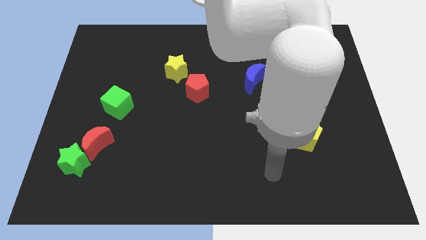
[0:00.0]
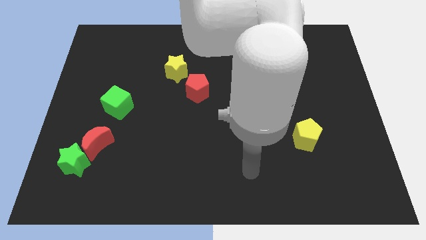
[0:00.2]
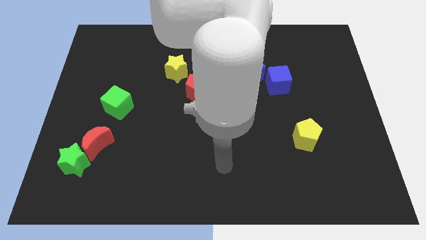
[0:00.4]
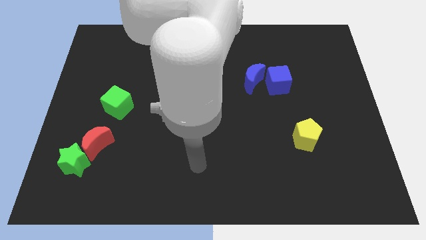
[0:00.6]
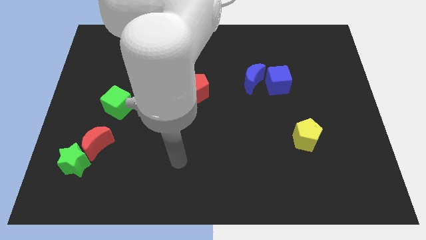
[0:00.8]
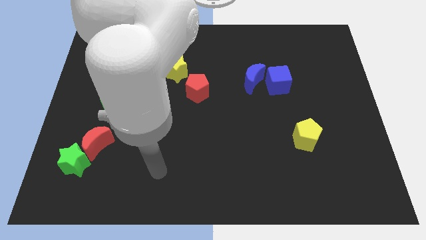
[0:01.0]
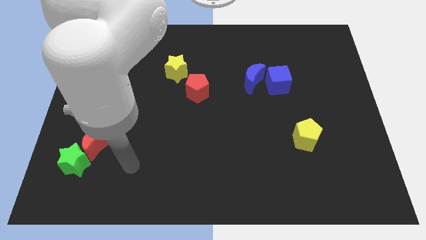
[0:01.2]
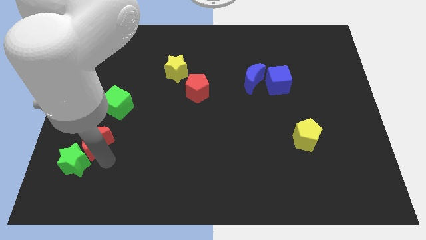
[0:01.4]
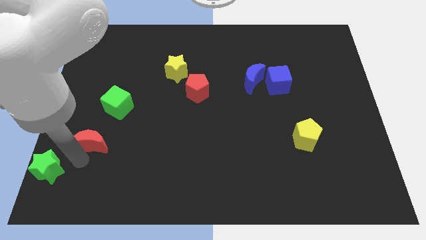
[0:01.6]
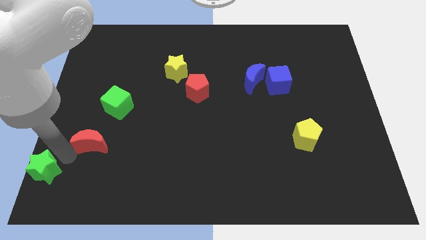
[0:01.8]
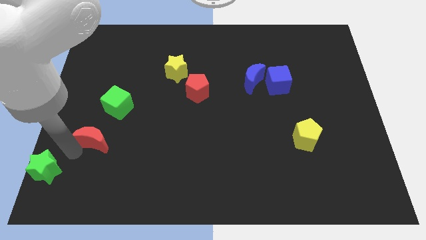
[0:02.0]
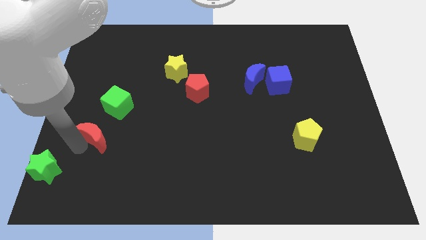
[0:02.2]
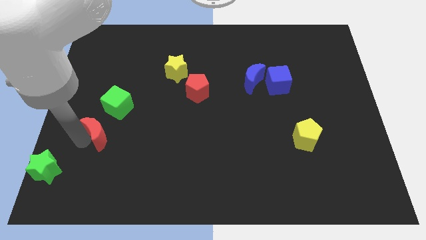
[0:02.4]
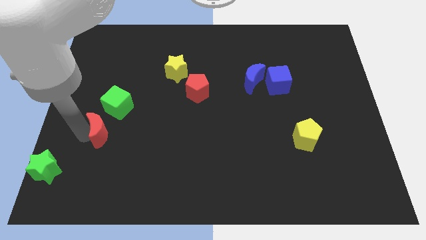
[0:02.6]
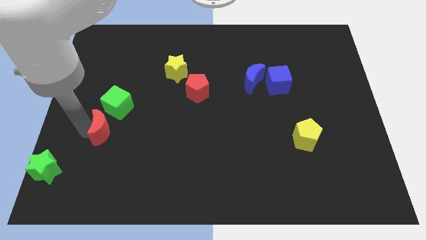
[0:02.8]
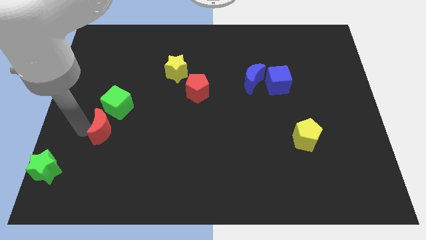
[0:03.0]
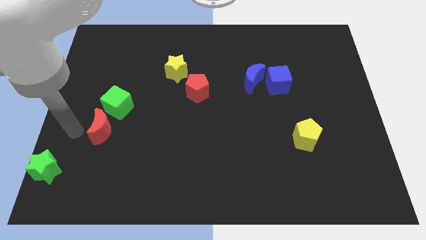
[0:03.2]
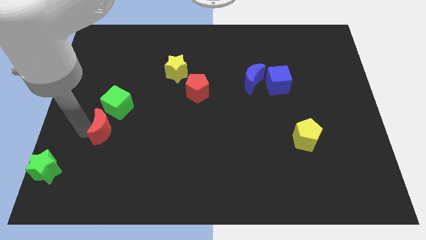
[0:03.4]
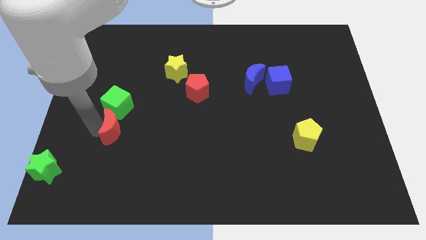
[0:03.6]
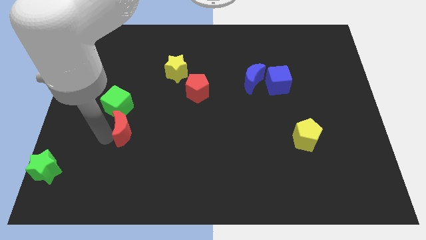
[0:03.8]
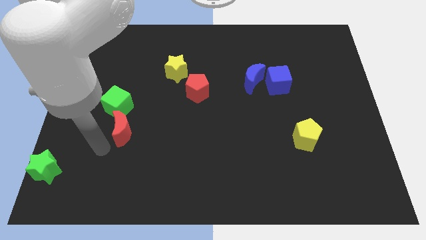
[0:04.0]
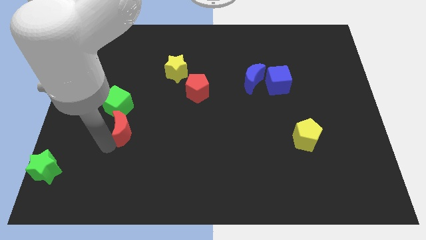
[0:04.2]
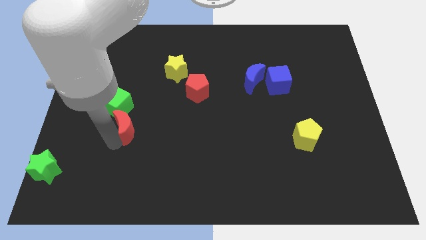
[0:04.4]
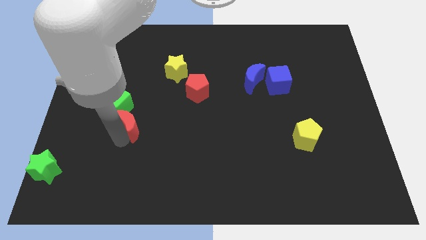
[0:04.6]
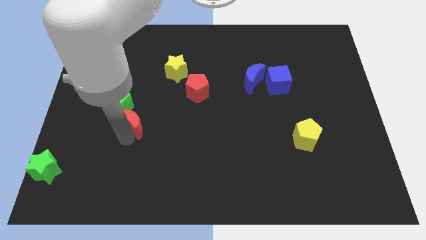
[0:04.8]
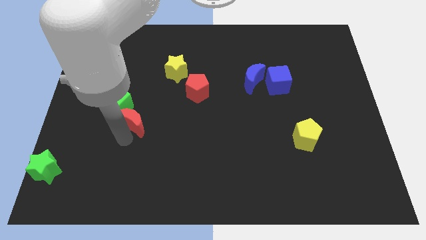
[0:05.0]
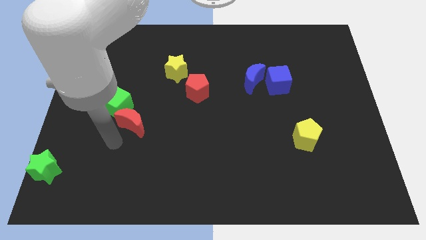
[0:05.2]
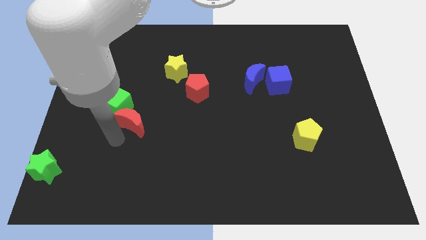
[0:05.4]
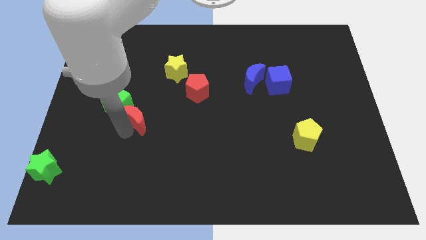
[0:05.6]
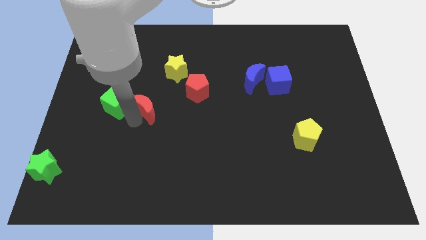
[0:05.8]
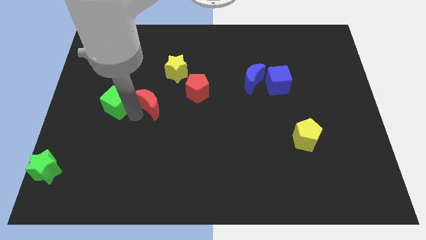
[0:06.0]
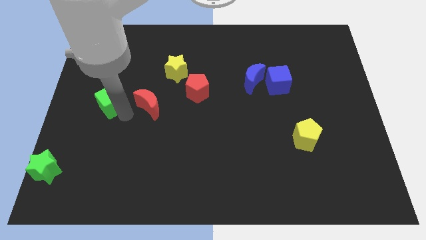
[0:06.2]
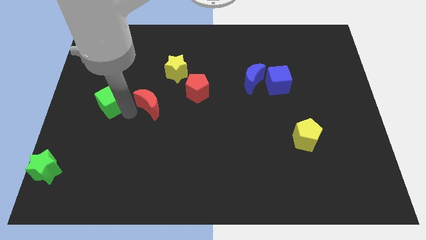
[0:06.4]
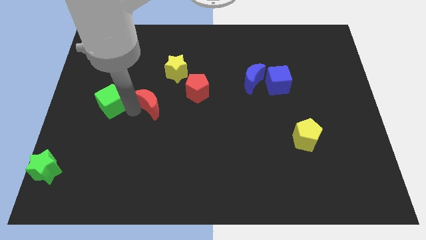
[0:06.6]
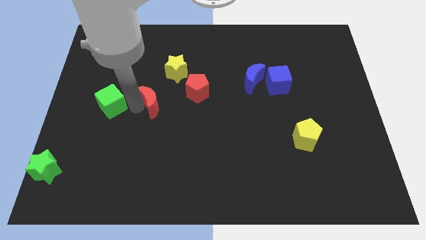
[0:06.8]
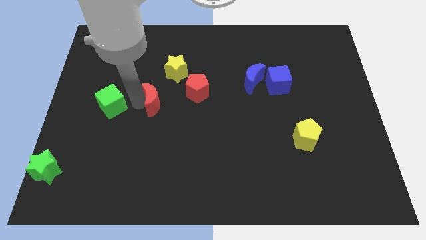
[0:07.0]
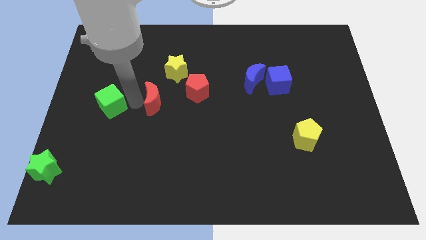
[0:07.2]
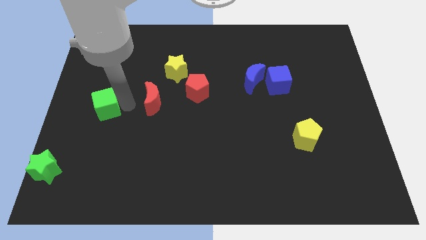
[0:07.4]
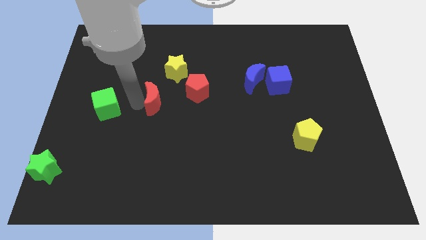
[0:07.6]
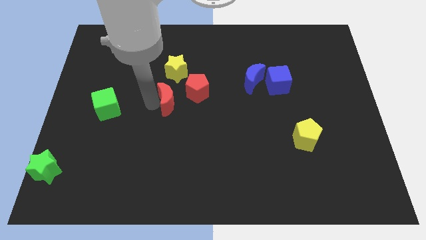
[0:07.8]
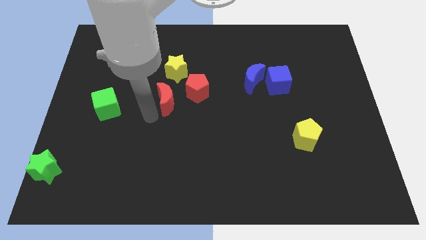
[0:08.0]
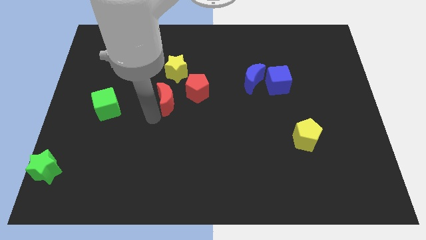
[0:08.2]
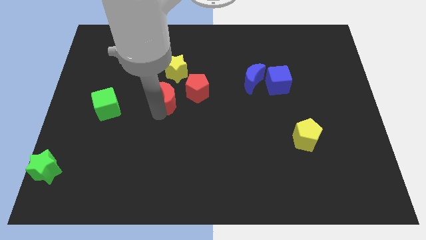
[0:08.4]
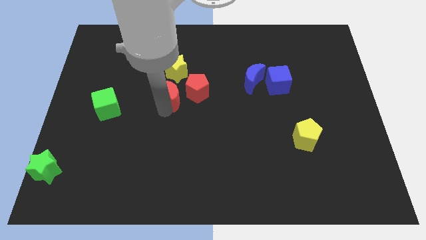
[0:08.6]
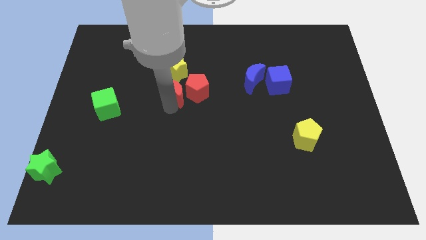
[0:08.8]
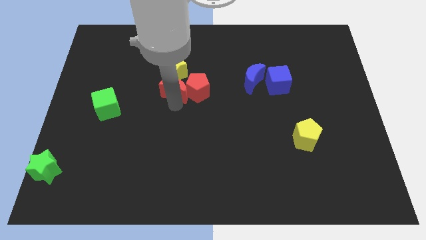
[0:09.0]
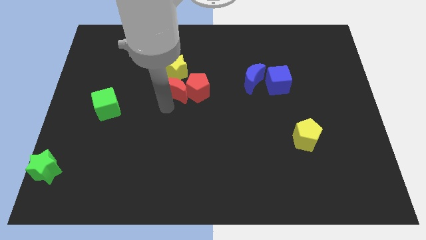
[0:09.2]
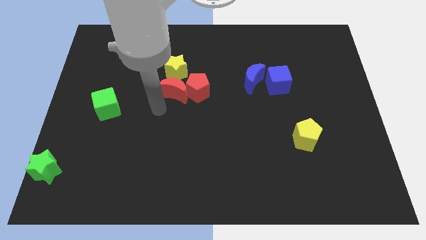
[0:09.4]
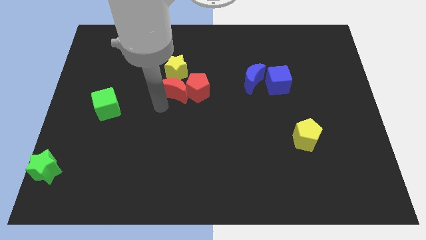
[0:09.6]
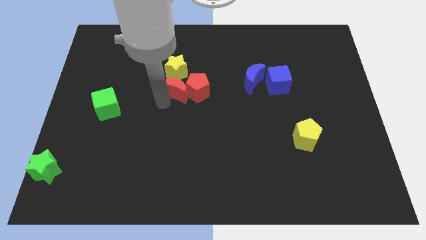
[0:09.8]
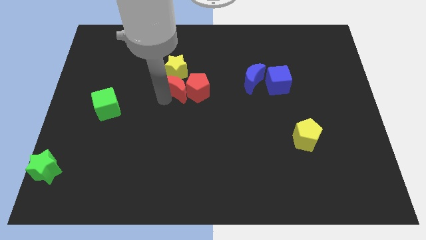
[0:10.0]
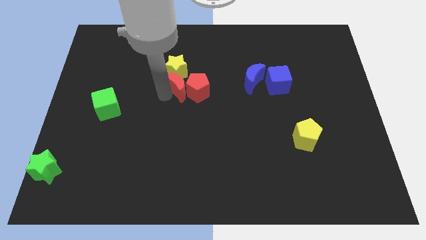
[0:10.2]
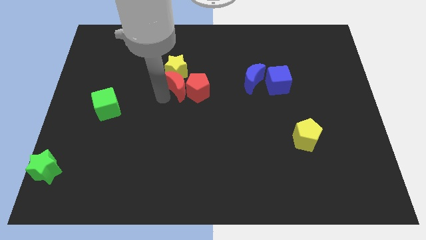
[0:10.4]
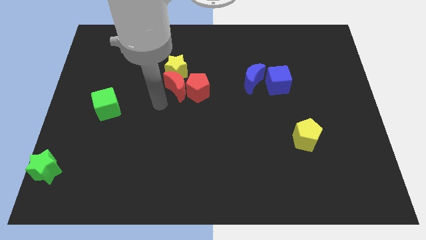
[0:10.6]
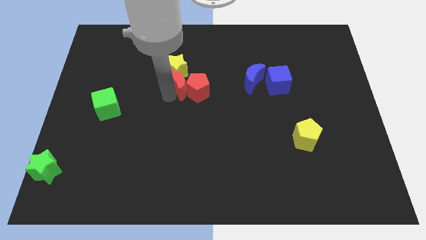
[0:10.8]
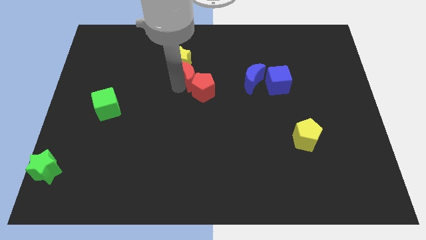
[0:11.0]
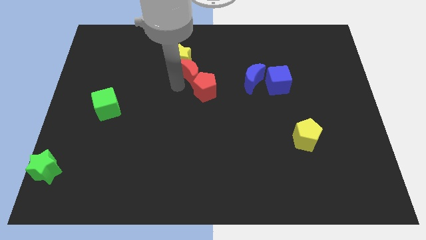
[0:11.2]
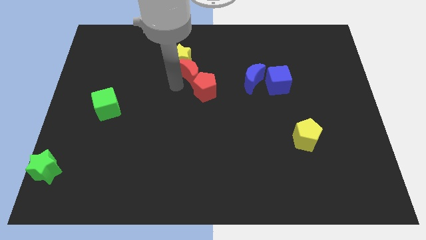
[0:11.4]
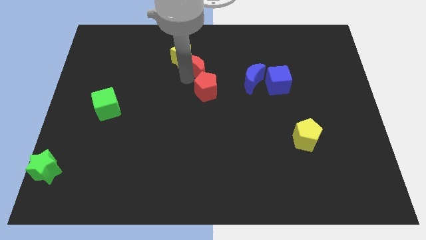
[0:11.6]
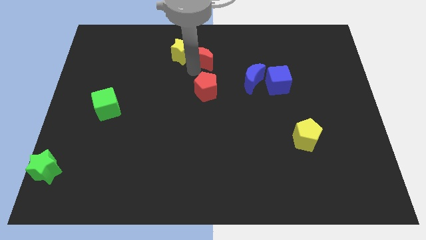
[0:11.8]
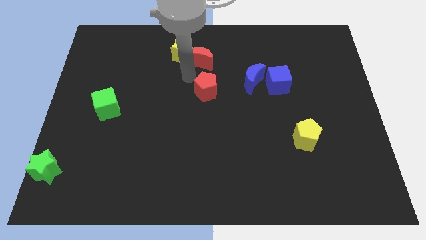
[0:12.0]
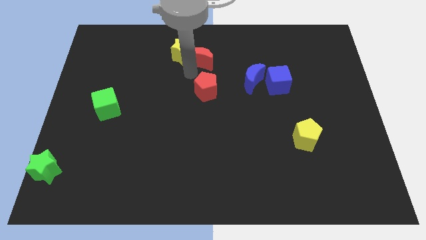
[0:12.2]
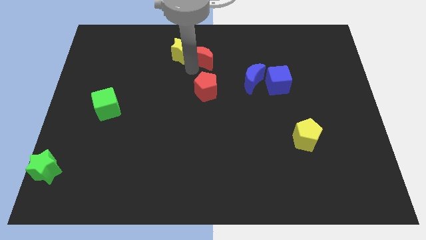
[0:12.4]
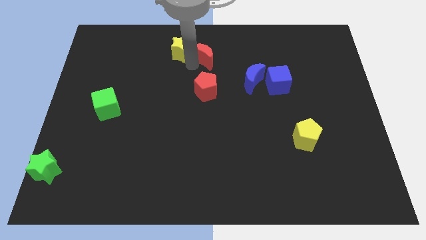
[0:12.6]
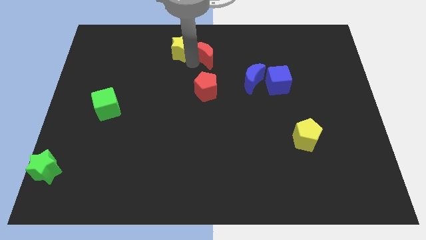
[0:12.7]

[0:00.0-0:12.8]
push the red moon to the top side
